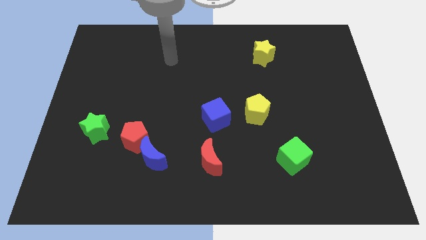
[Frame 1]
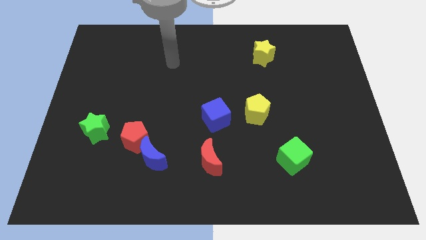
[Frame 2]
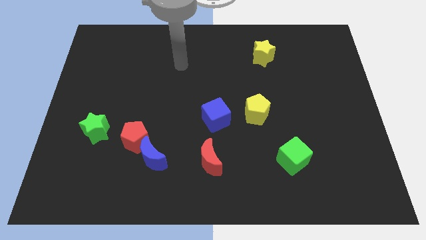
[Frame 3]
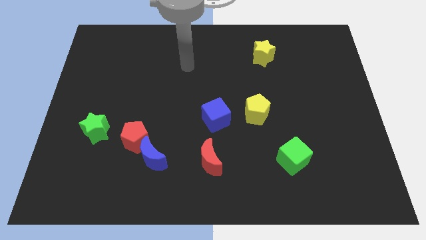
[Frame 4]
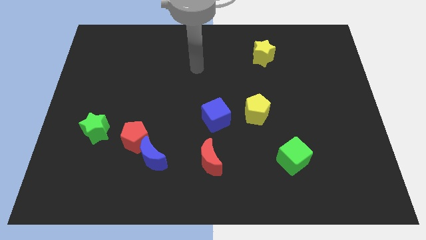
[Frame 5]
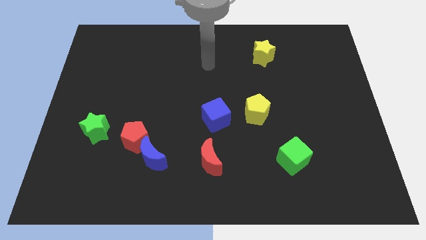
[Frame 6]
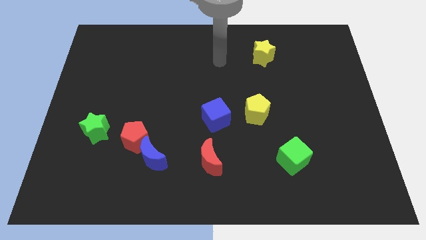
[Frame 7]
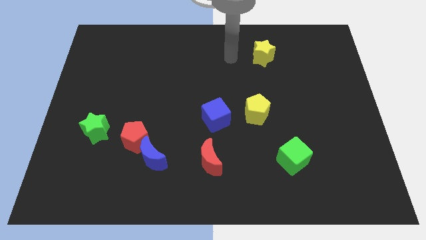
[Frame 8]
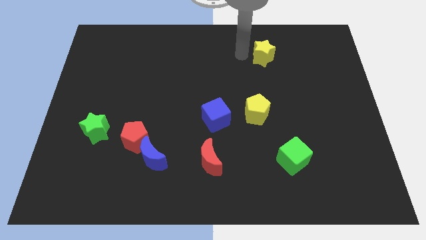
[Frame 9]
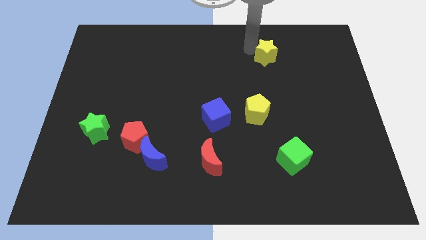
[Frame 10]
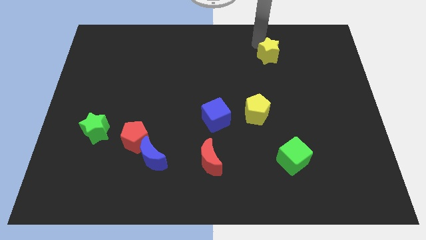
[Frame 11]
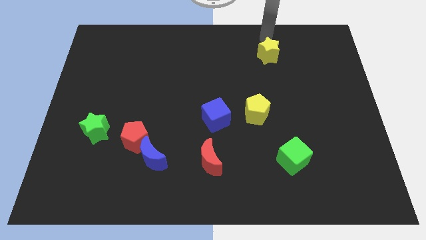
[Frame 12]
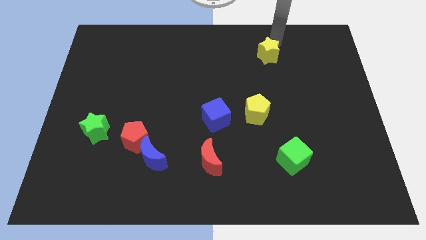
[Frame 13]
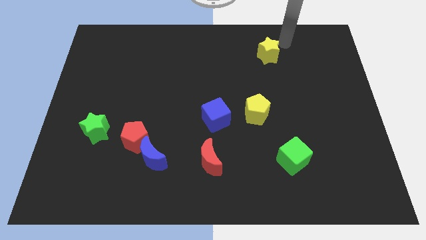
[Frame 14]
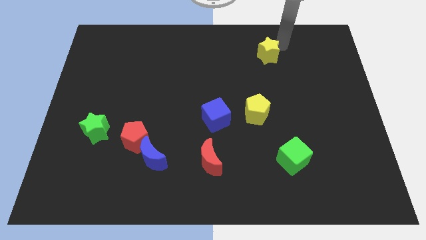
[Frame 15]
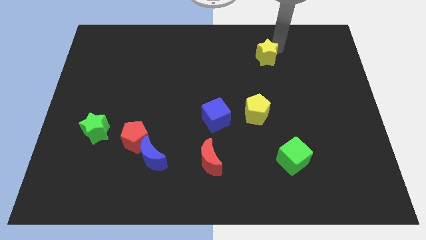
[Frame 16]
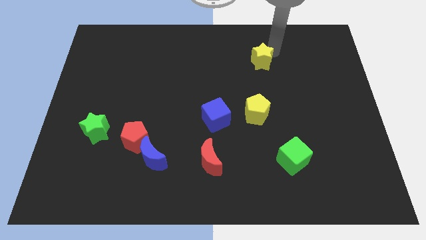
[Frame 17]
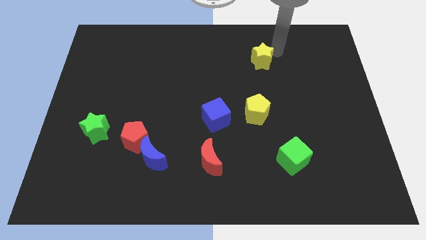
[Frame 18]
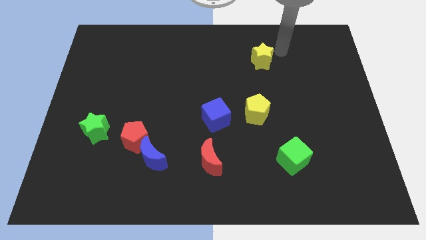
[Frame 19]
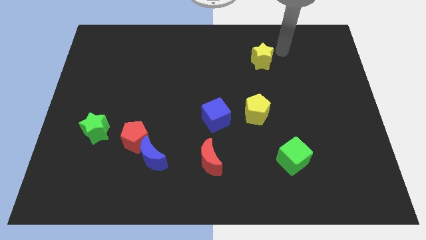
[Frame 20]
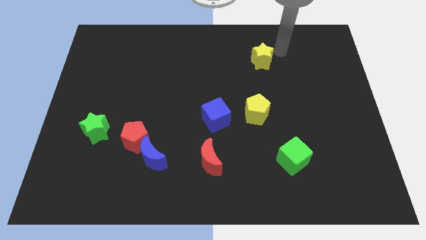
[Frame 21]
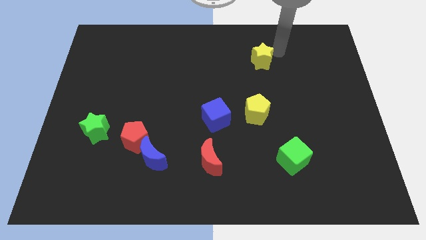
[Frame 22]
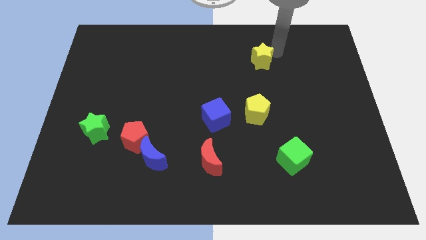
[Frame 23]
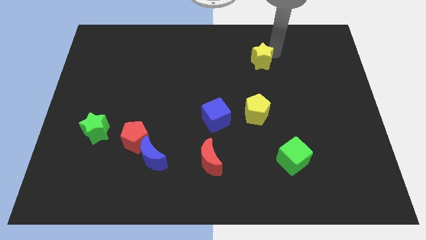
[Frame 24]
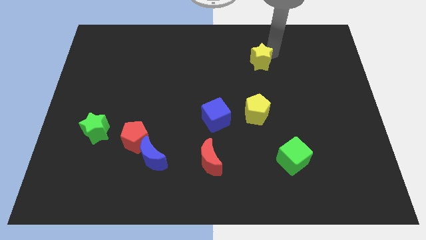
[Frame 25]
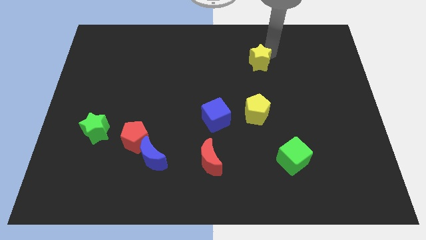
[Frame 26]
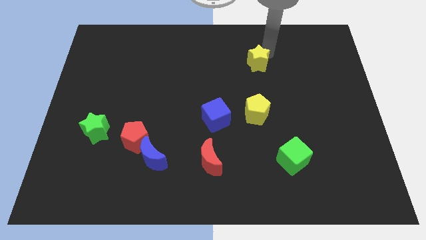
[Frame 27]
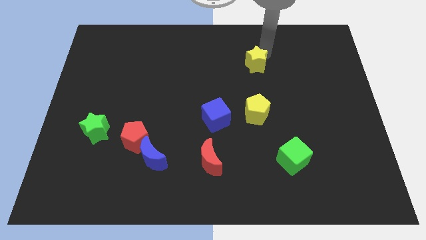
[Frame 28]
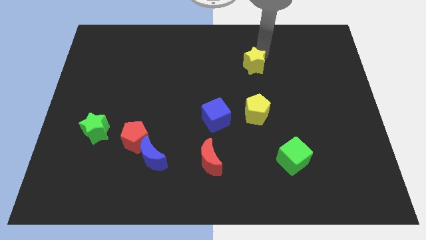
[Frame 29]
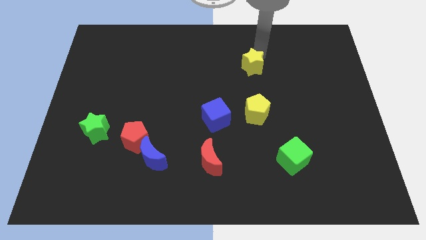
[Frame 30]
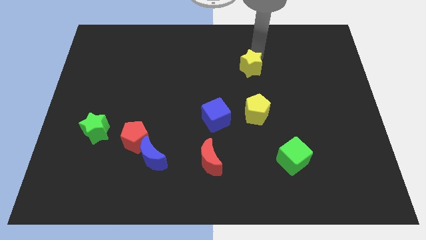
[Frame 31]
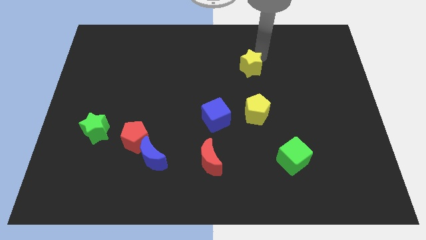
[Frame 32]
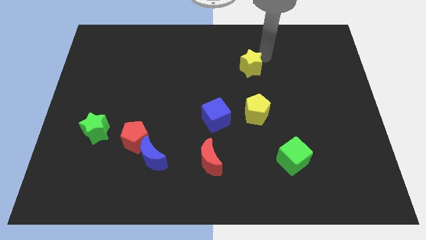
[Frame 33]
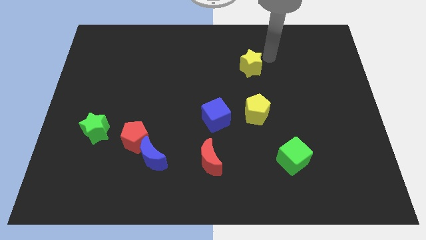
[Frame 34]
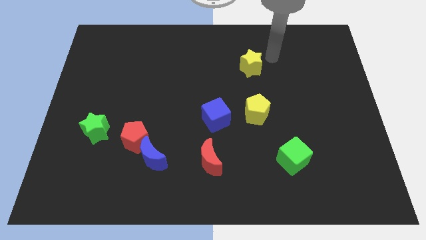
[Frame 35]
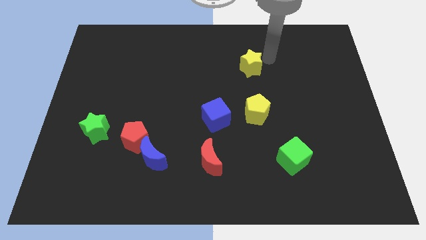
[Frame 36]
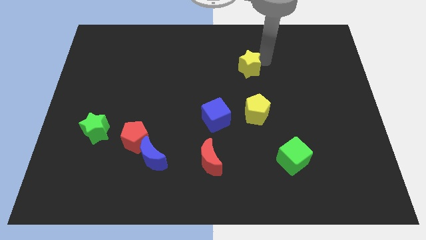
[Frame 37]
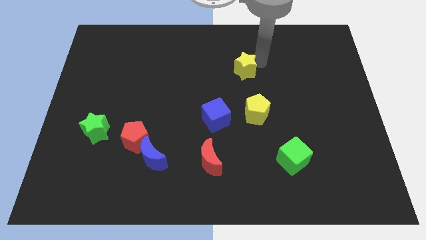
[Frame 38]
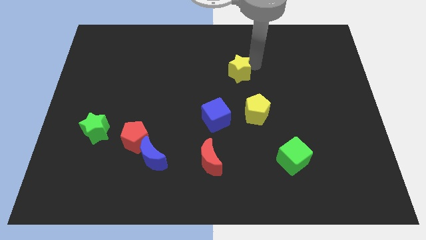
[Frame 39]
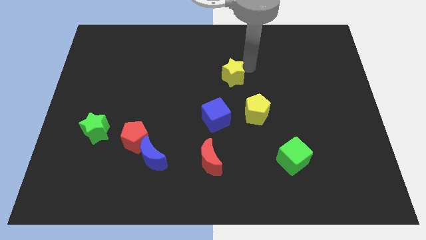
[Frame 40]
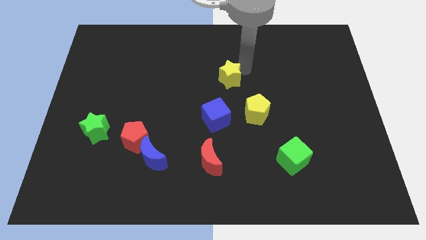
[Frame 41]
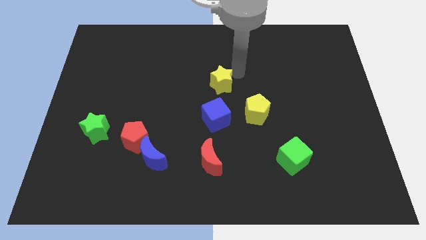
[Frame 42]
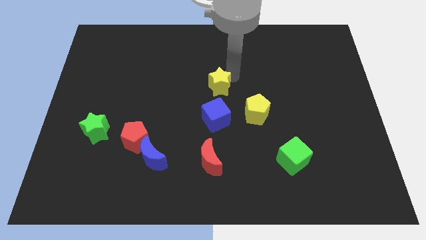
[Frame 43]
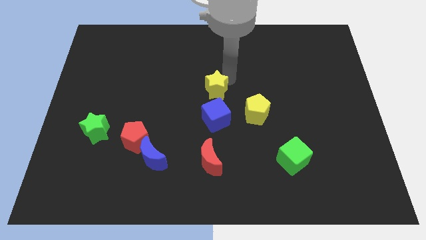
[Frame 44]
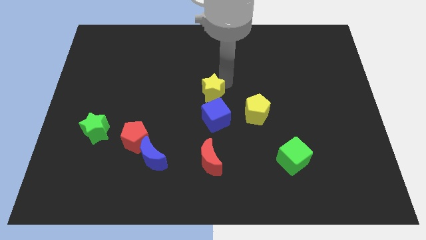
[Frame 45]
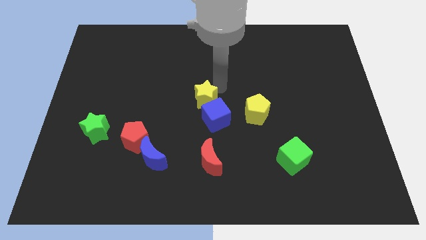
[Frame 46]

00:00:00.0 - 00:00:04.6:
push the yellow star downwards and then to the left

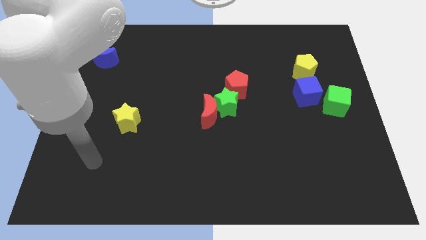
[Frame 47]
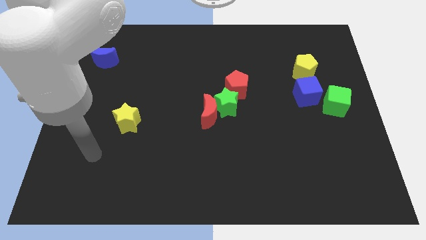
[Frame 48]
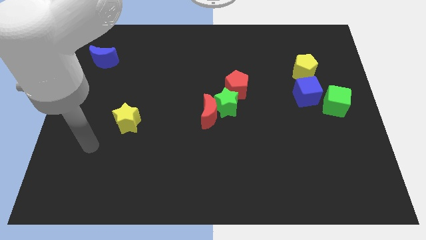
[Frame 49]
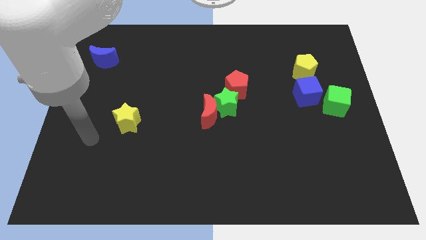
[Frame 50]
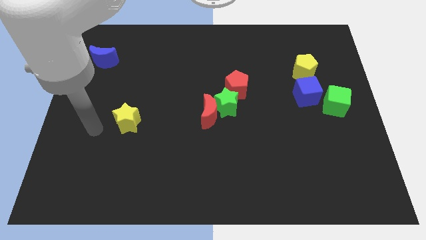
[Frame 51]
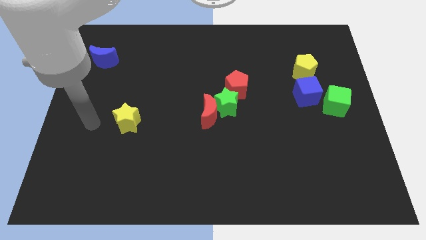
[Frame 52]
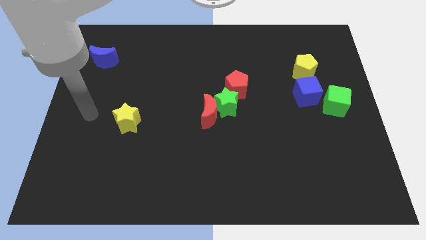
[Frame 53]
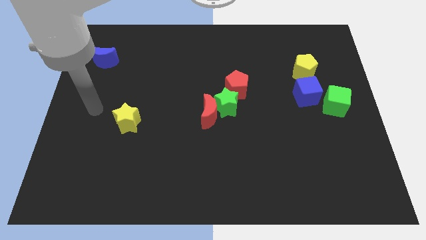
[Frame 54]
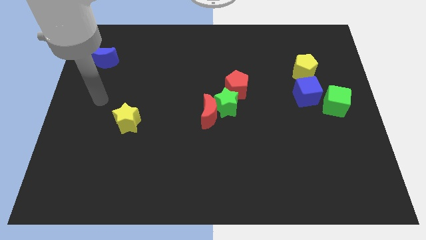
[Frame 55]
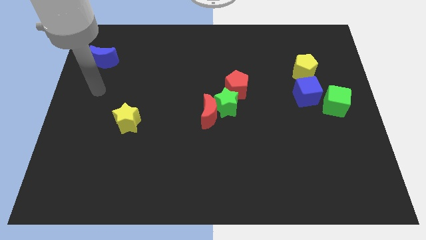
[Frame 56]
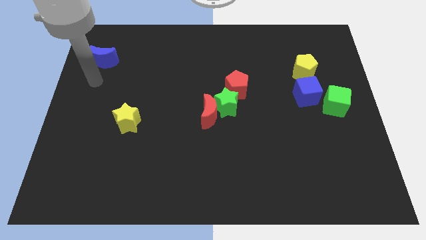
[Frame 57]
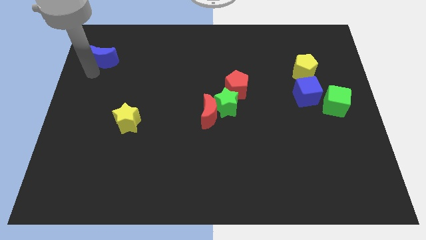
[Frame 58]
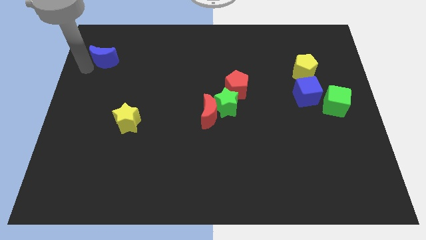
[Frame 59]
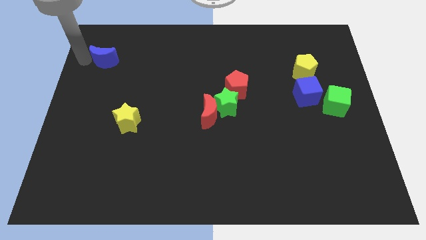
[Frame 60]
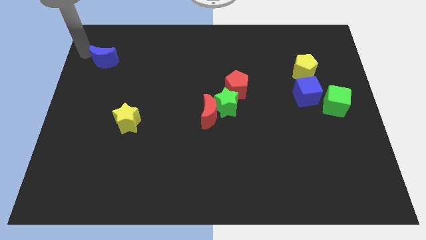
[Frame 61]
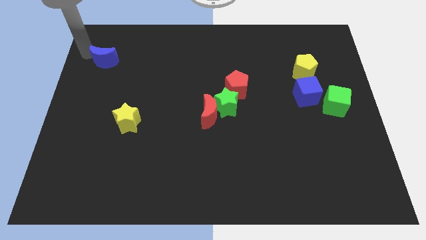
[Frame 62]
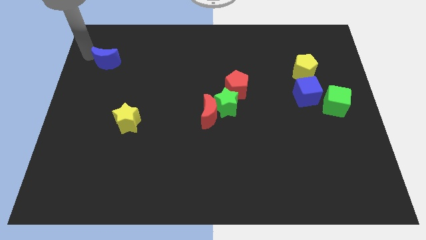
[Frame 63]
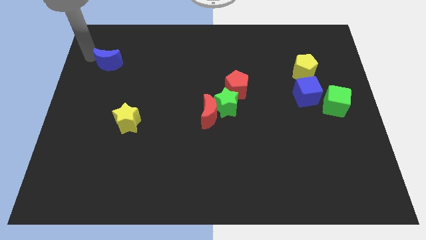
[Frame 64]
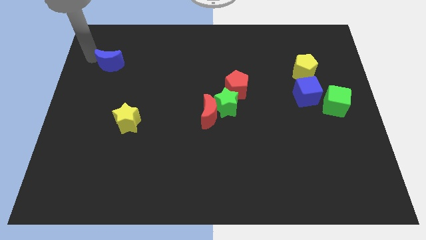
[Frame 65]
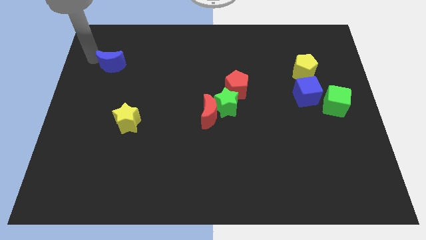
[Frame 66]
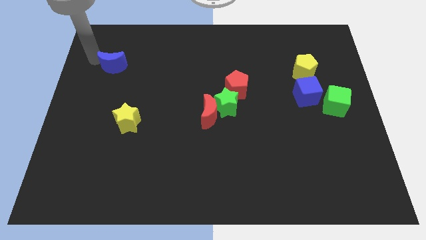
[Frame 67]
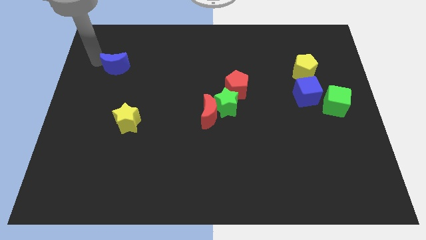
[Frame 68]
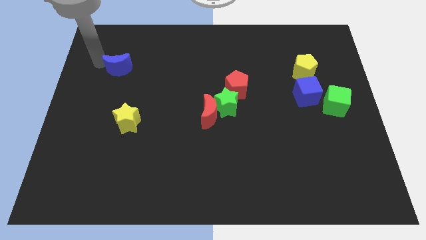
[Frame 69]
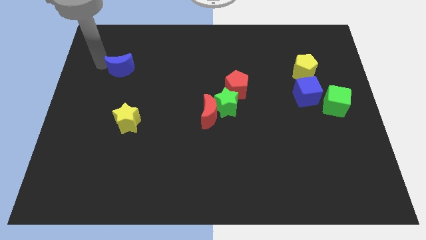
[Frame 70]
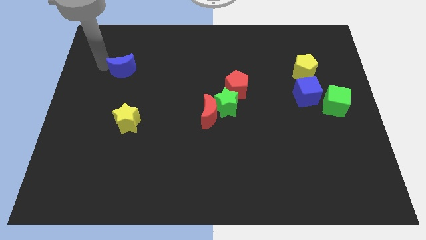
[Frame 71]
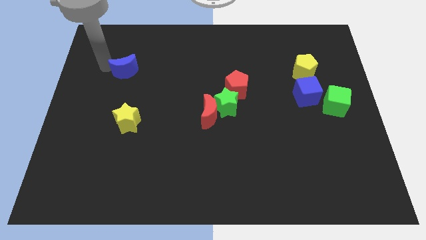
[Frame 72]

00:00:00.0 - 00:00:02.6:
slightly move the blue moon diagonally downwards and to the right

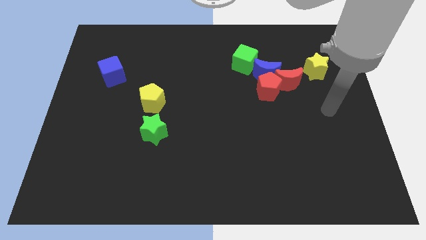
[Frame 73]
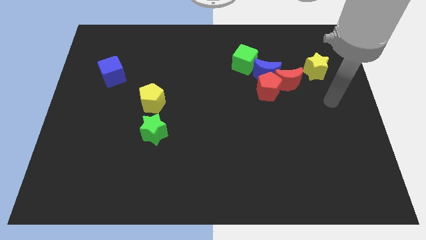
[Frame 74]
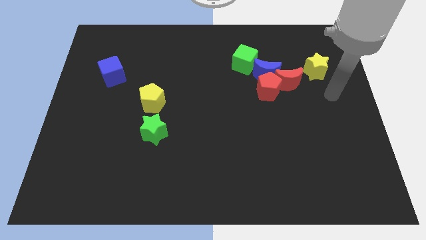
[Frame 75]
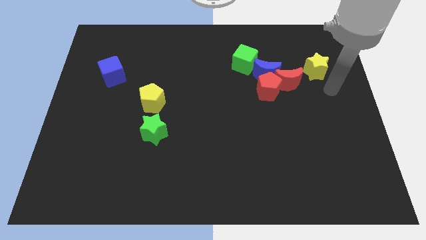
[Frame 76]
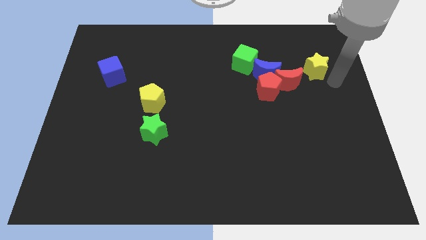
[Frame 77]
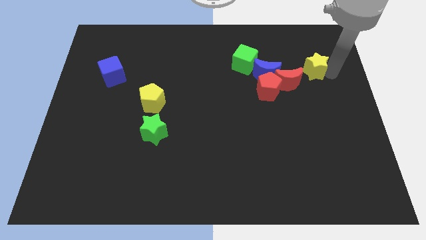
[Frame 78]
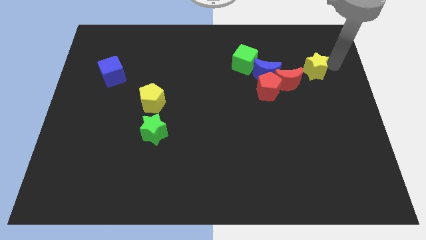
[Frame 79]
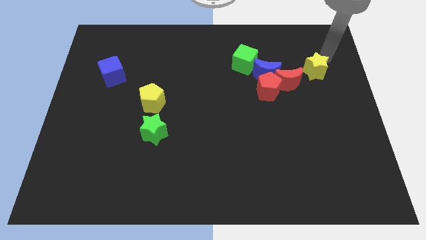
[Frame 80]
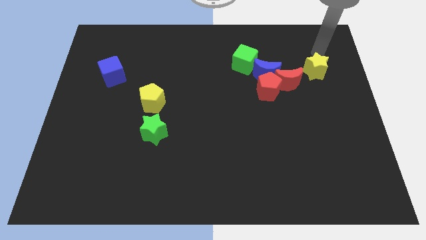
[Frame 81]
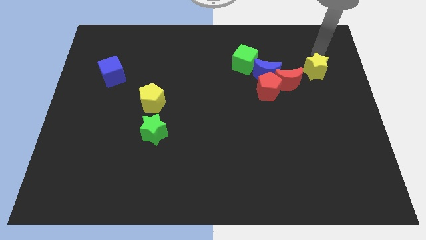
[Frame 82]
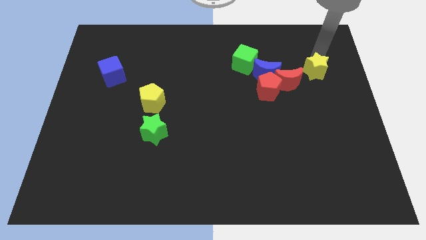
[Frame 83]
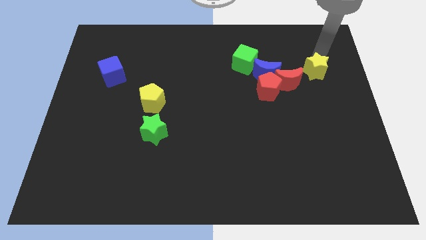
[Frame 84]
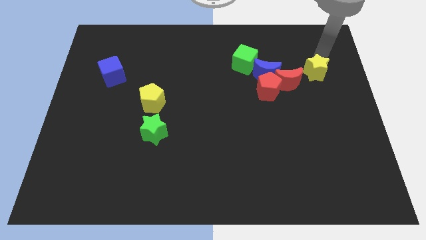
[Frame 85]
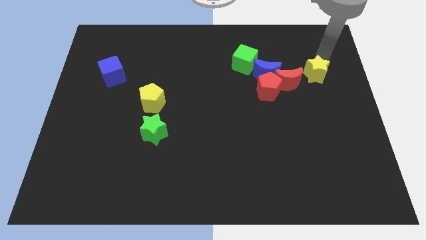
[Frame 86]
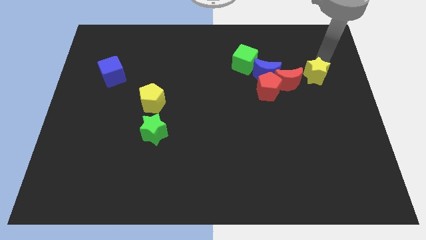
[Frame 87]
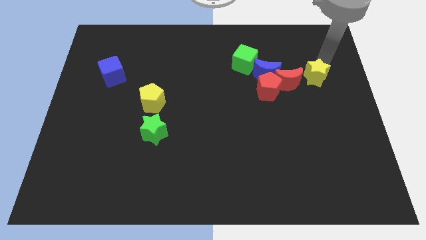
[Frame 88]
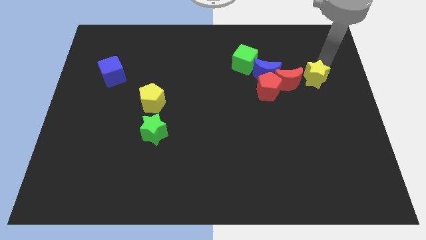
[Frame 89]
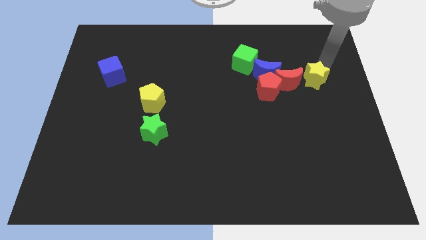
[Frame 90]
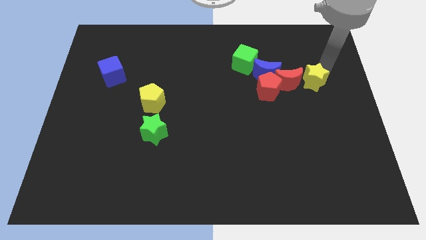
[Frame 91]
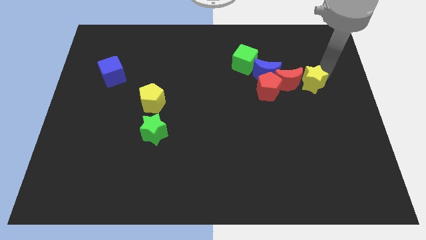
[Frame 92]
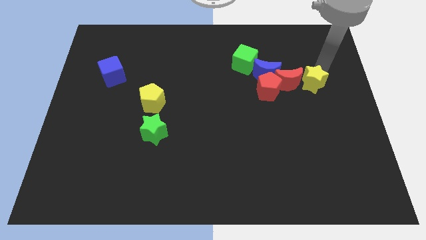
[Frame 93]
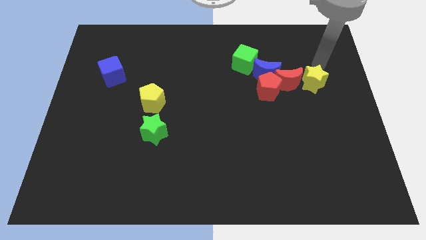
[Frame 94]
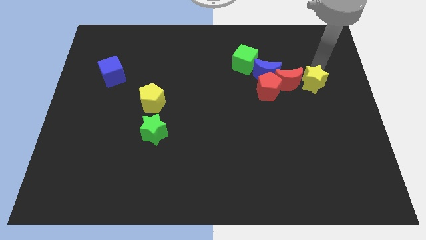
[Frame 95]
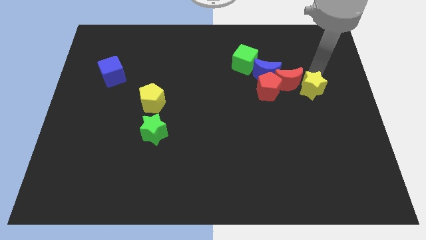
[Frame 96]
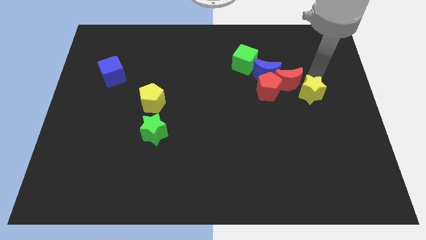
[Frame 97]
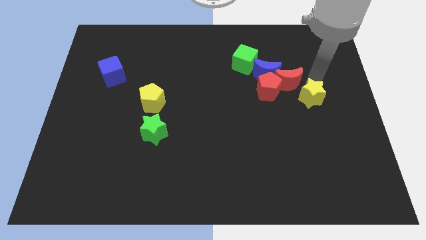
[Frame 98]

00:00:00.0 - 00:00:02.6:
slide the yellow star diagonally down and left slightly
